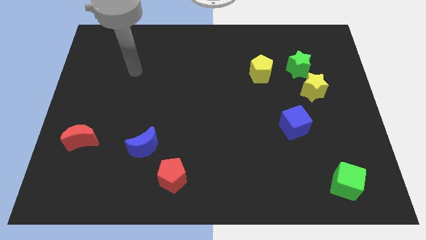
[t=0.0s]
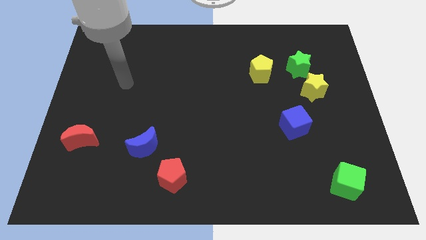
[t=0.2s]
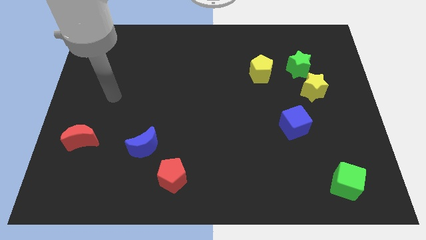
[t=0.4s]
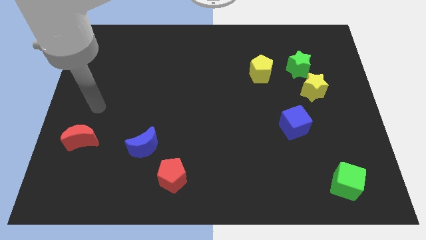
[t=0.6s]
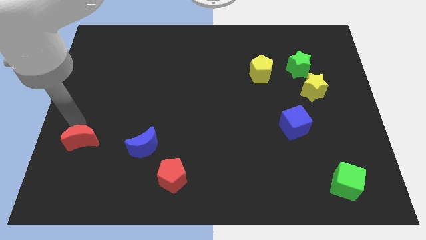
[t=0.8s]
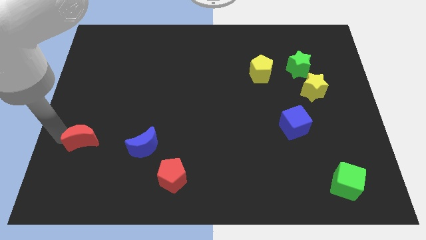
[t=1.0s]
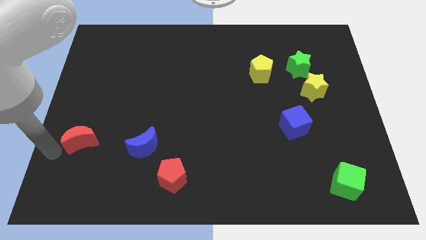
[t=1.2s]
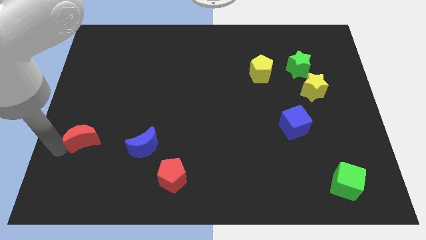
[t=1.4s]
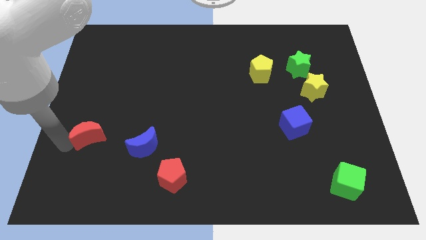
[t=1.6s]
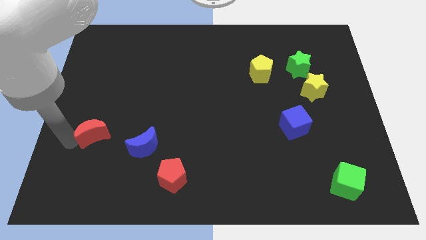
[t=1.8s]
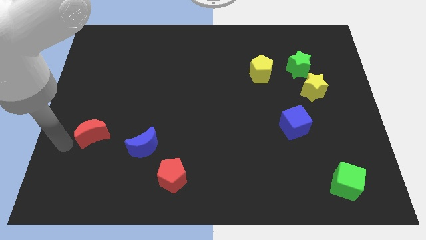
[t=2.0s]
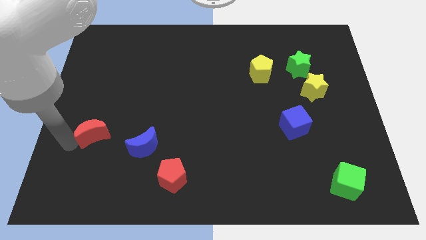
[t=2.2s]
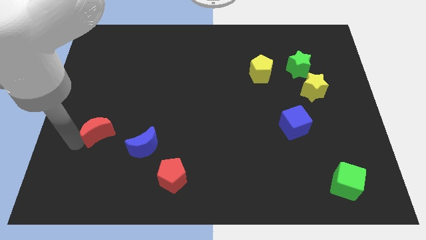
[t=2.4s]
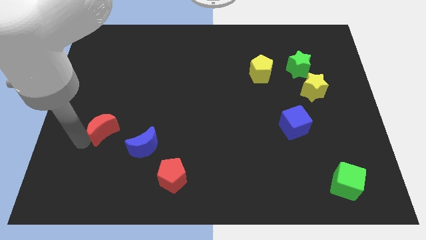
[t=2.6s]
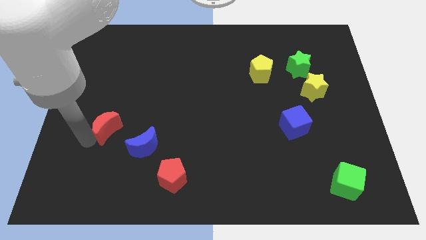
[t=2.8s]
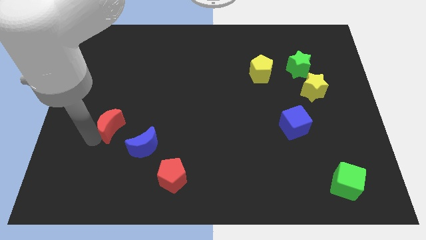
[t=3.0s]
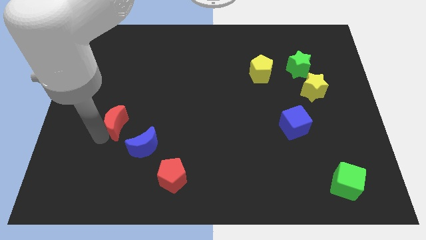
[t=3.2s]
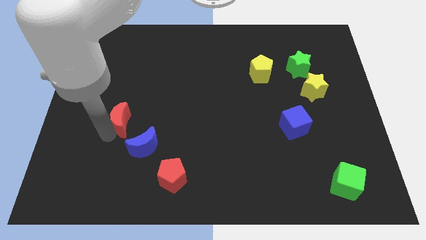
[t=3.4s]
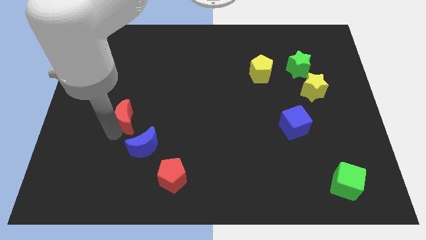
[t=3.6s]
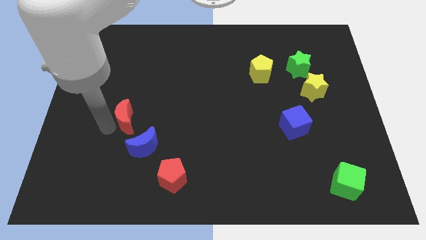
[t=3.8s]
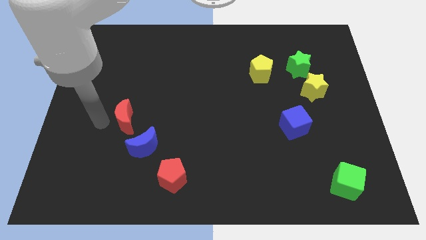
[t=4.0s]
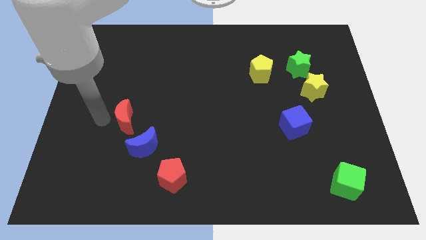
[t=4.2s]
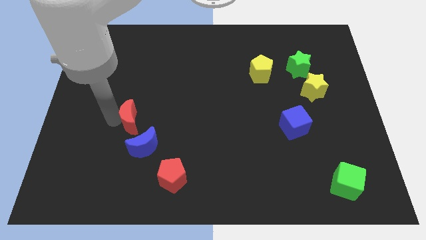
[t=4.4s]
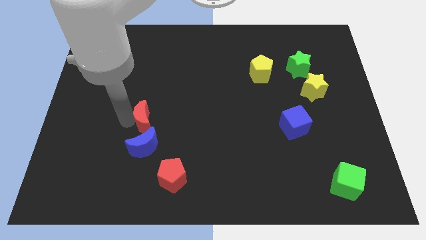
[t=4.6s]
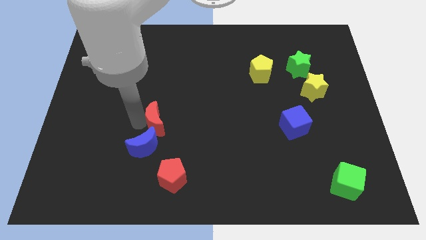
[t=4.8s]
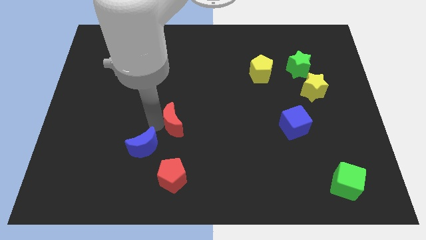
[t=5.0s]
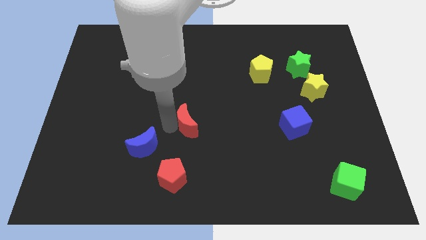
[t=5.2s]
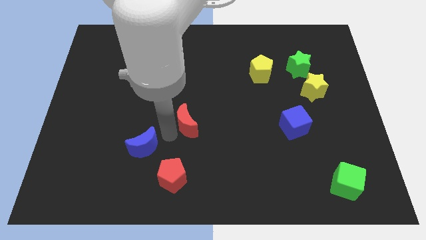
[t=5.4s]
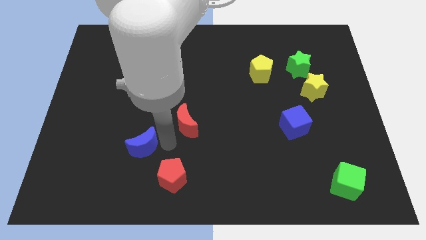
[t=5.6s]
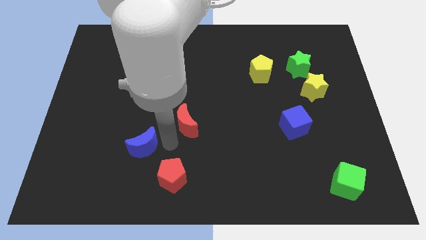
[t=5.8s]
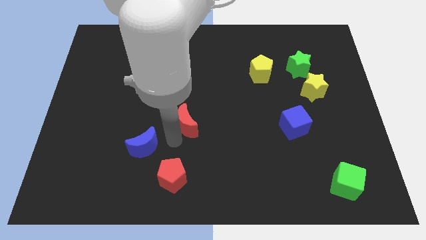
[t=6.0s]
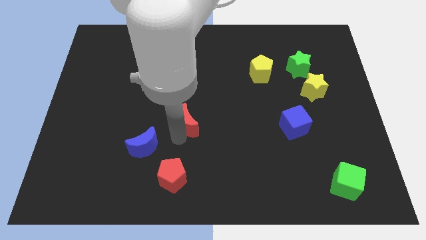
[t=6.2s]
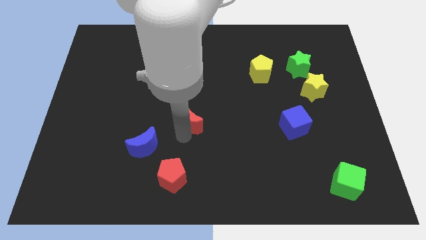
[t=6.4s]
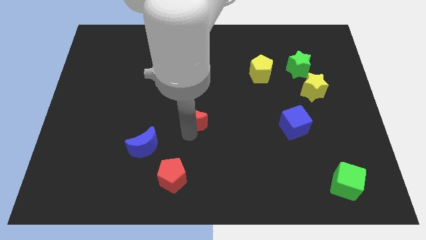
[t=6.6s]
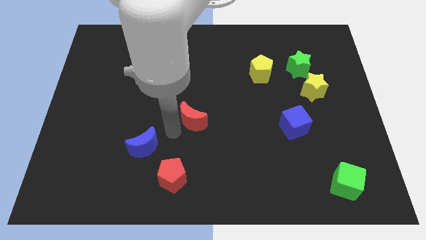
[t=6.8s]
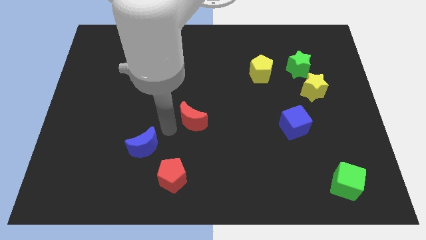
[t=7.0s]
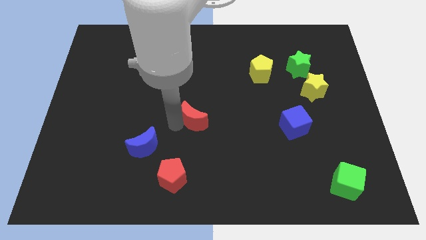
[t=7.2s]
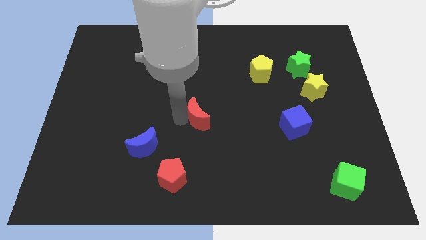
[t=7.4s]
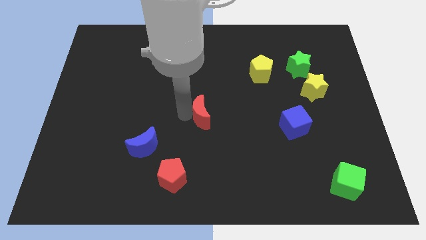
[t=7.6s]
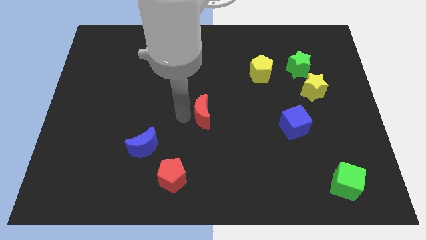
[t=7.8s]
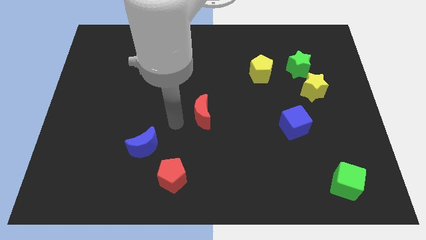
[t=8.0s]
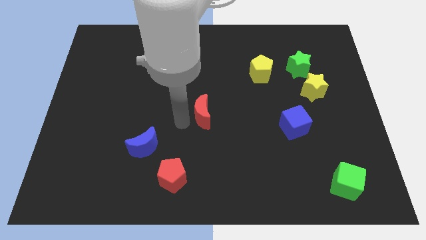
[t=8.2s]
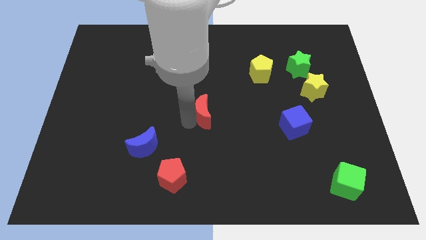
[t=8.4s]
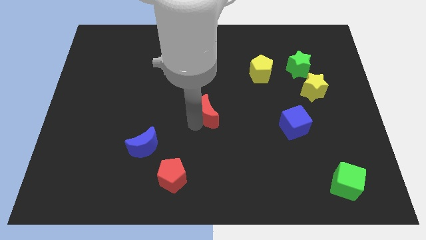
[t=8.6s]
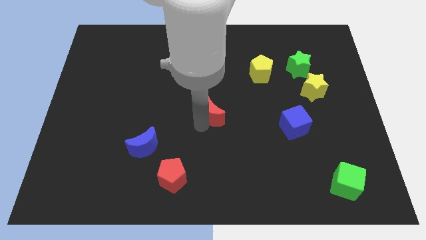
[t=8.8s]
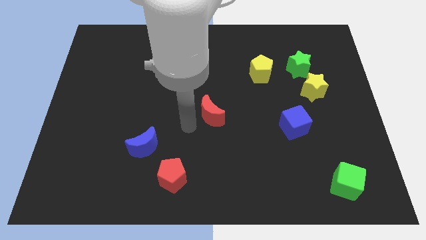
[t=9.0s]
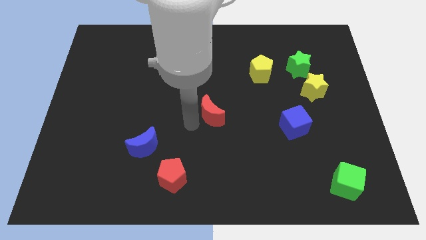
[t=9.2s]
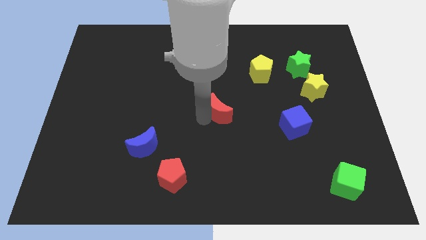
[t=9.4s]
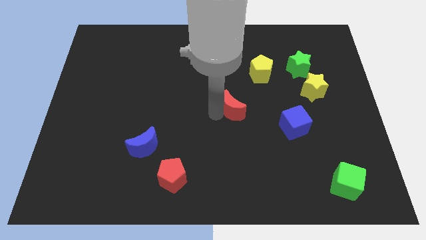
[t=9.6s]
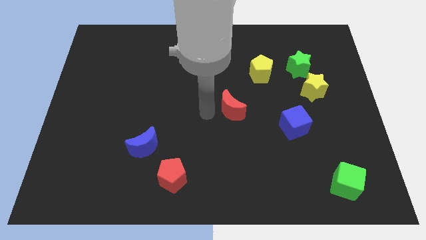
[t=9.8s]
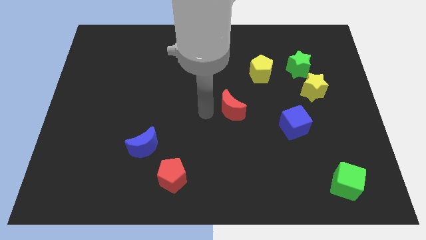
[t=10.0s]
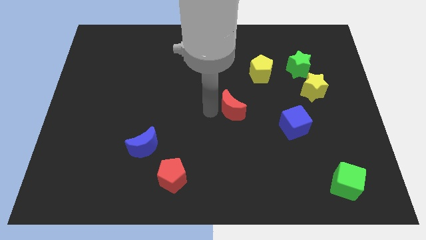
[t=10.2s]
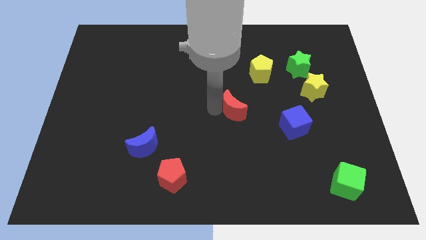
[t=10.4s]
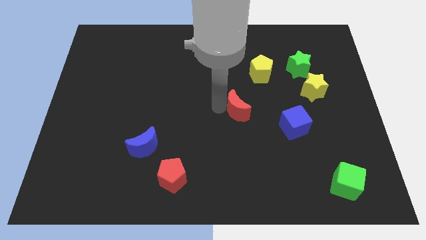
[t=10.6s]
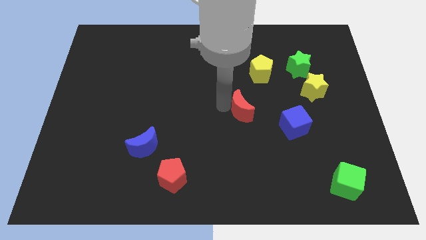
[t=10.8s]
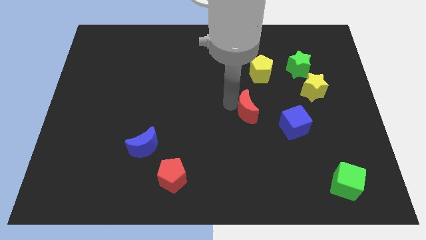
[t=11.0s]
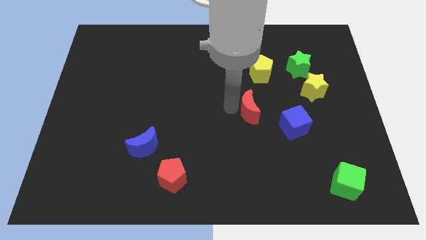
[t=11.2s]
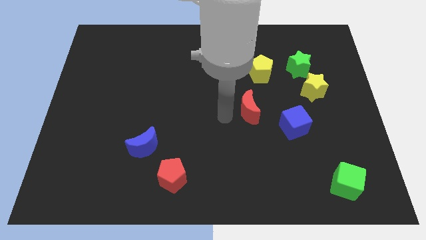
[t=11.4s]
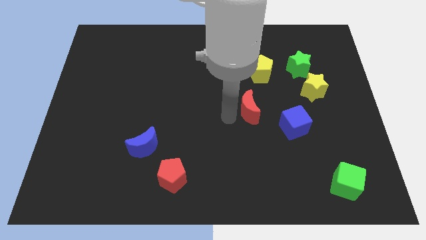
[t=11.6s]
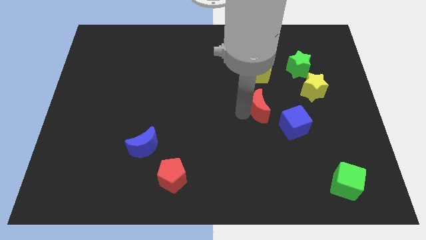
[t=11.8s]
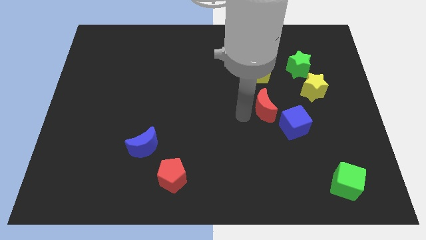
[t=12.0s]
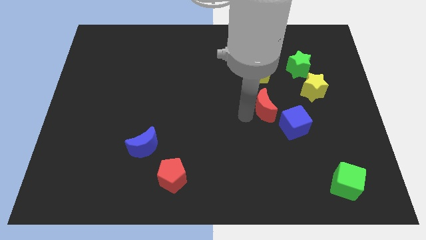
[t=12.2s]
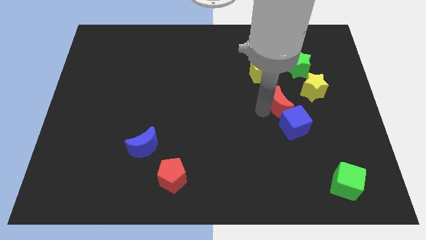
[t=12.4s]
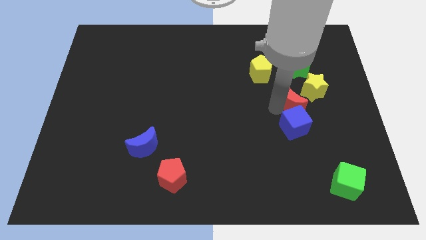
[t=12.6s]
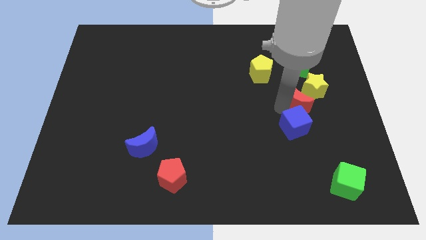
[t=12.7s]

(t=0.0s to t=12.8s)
push the red moon close to the yellow star
